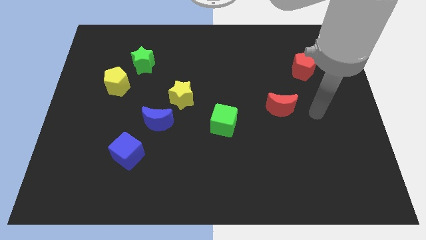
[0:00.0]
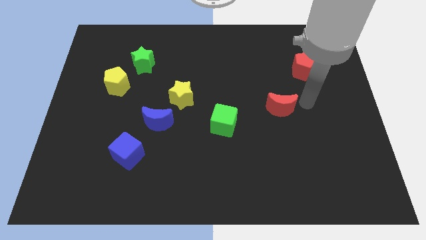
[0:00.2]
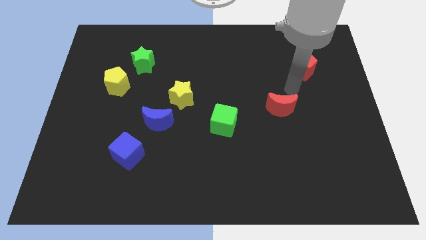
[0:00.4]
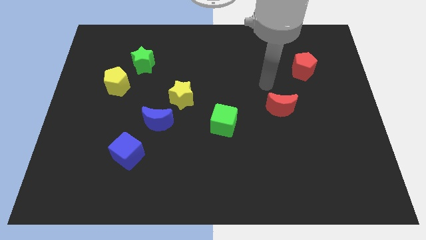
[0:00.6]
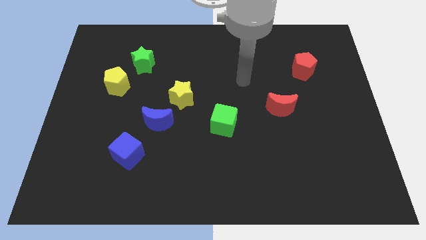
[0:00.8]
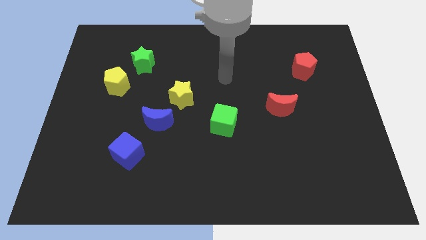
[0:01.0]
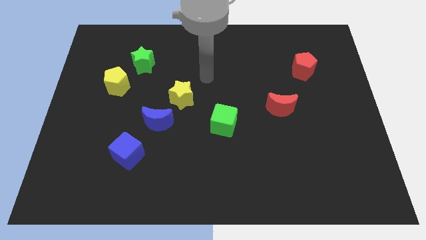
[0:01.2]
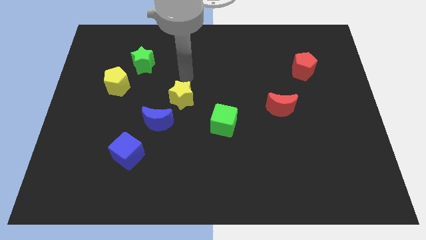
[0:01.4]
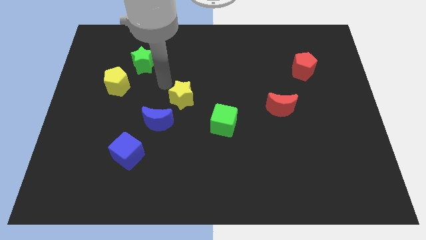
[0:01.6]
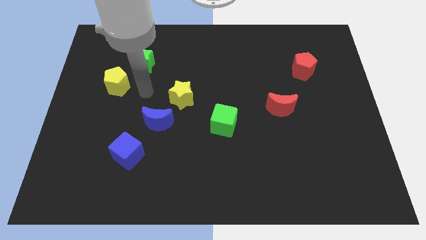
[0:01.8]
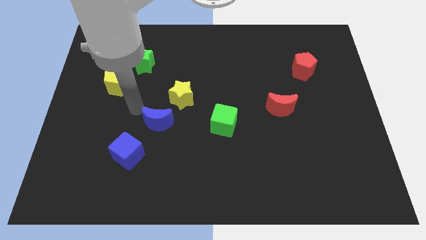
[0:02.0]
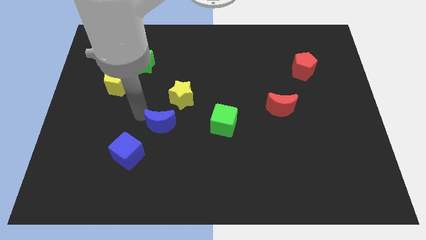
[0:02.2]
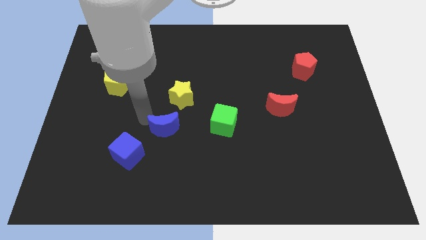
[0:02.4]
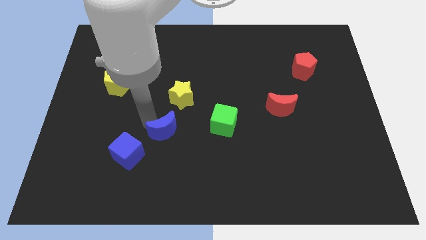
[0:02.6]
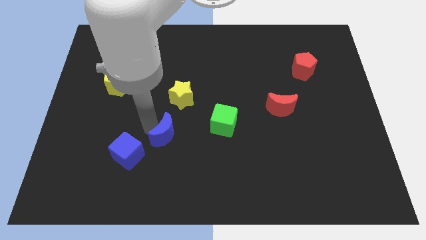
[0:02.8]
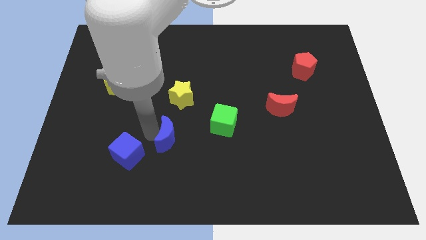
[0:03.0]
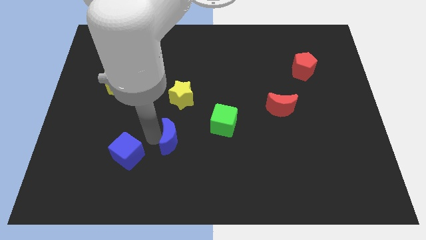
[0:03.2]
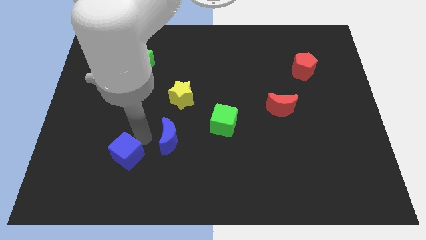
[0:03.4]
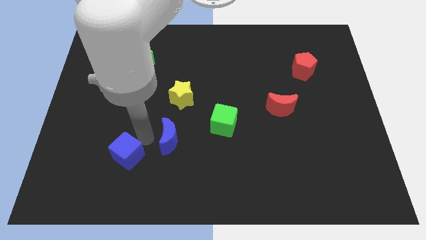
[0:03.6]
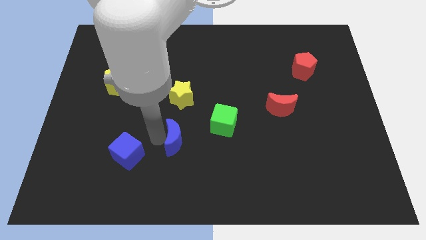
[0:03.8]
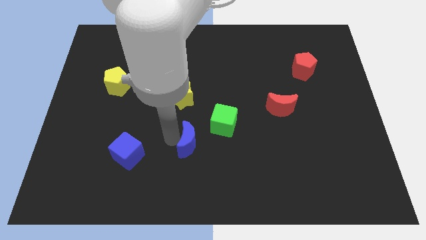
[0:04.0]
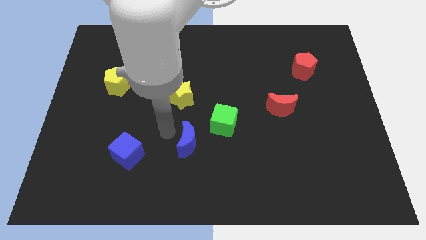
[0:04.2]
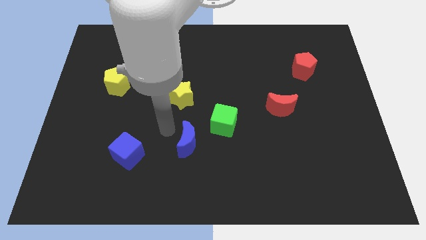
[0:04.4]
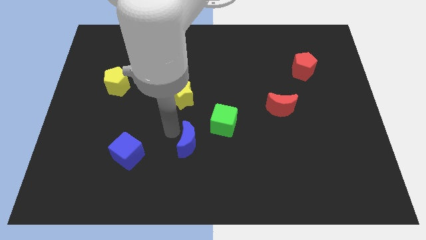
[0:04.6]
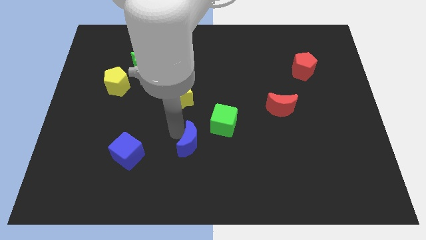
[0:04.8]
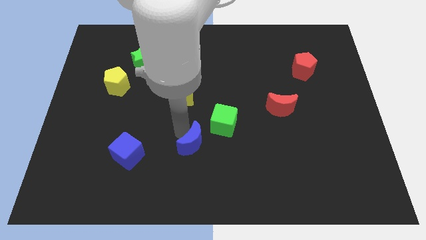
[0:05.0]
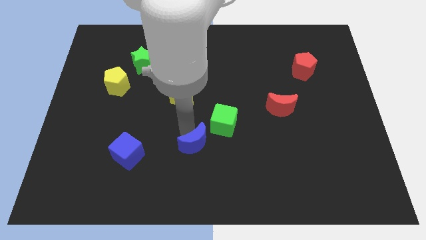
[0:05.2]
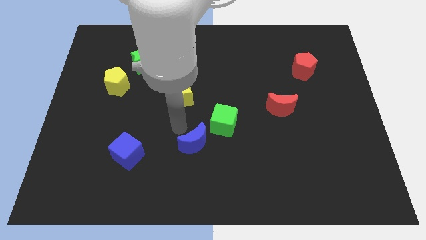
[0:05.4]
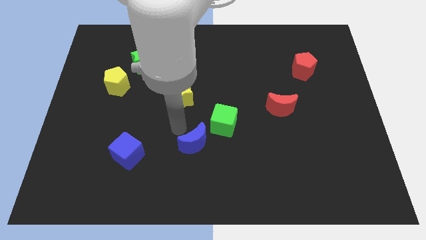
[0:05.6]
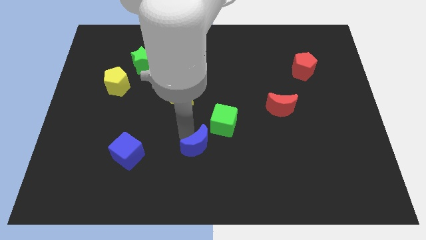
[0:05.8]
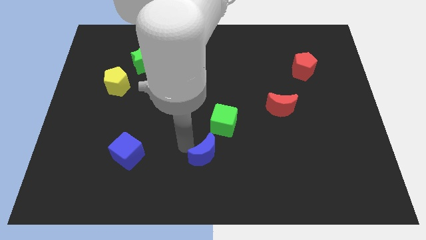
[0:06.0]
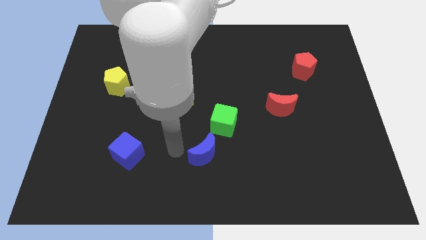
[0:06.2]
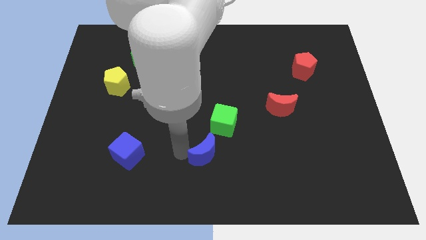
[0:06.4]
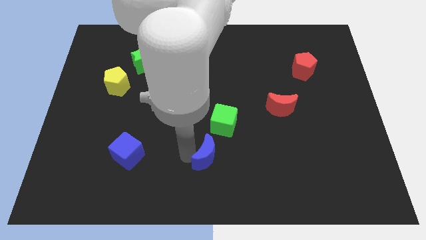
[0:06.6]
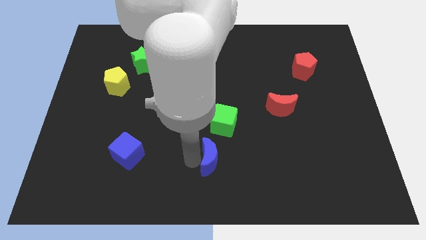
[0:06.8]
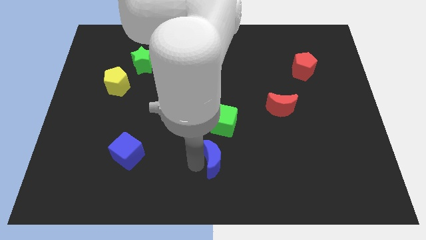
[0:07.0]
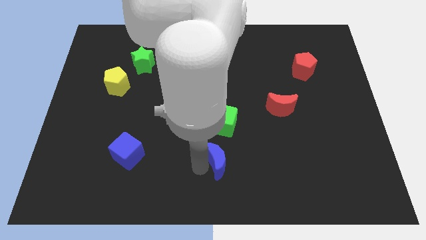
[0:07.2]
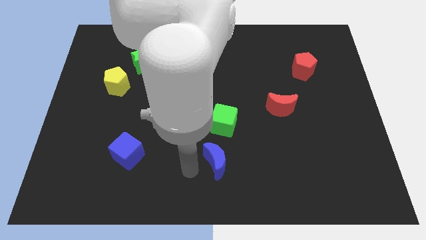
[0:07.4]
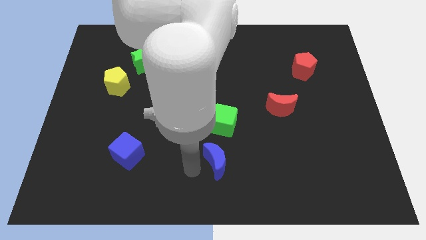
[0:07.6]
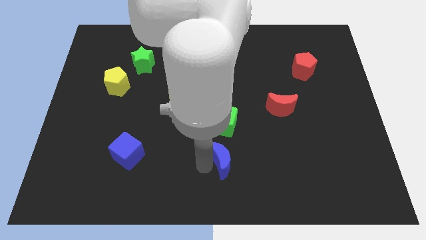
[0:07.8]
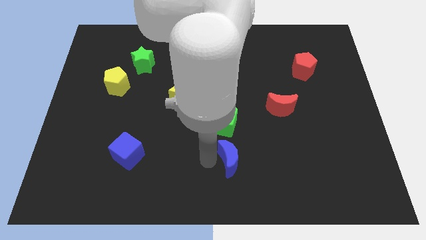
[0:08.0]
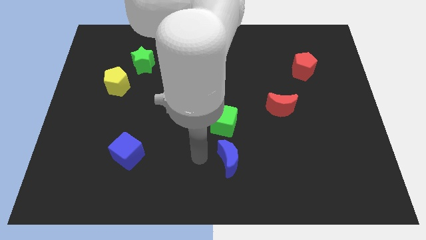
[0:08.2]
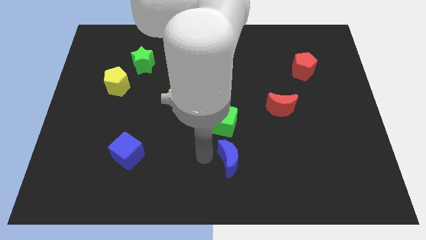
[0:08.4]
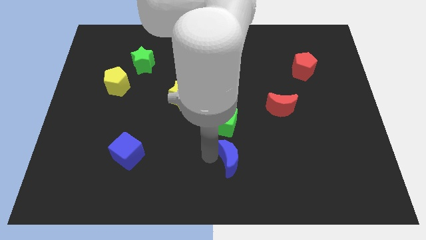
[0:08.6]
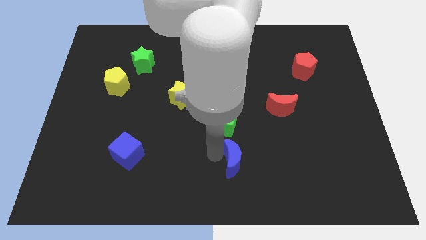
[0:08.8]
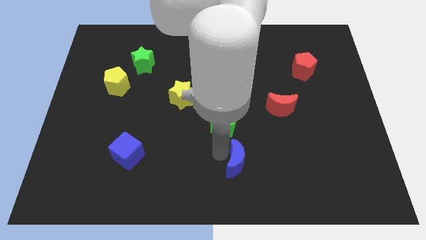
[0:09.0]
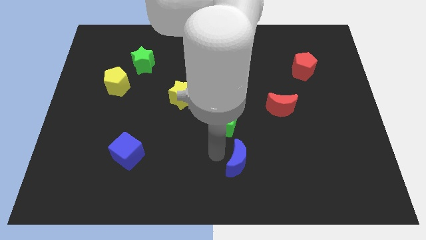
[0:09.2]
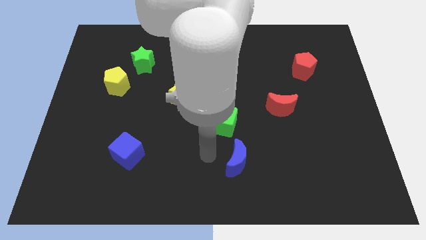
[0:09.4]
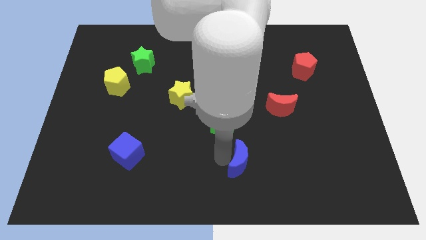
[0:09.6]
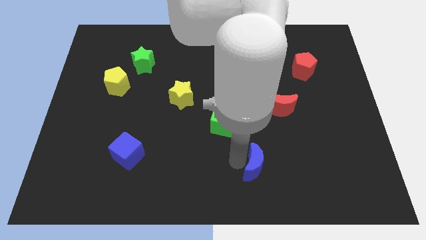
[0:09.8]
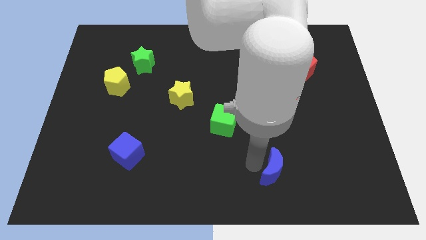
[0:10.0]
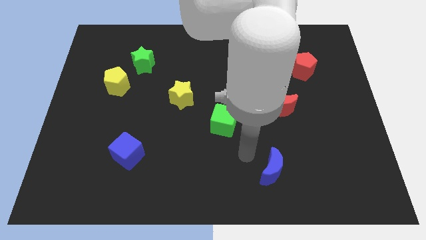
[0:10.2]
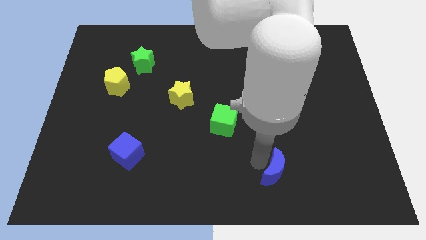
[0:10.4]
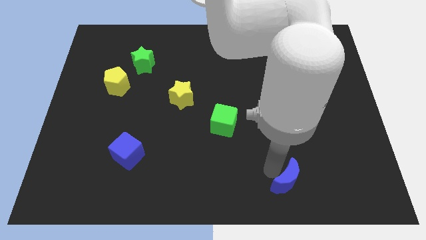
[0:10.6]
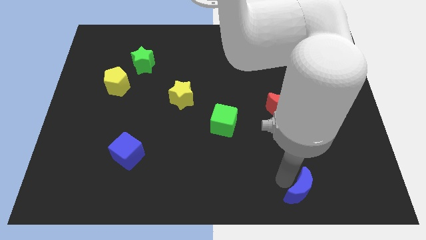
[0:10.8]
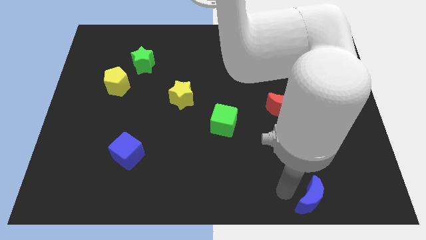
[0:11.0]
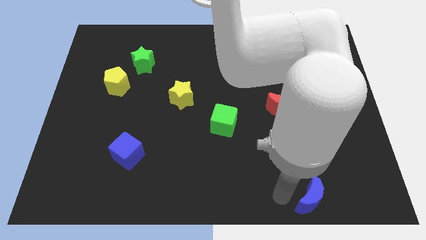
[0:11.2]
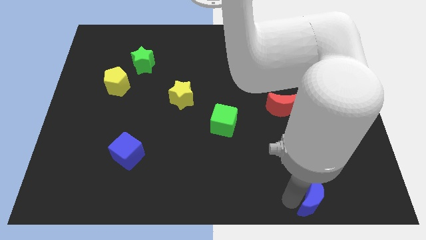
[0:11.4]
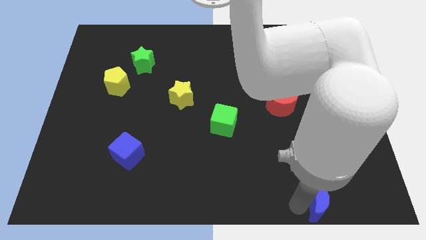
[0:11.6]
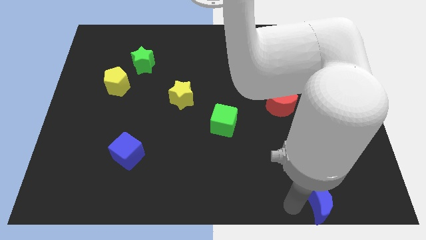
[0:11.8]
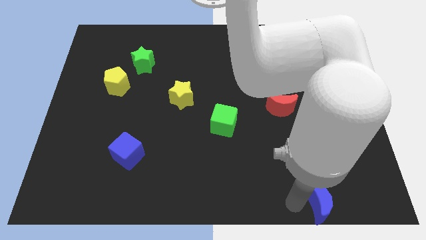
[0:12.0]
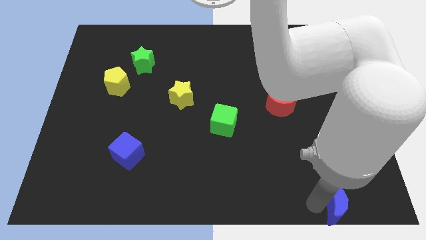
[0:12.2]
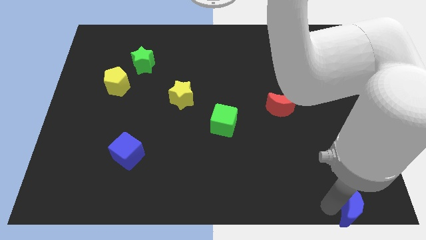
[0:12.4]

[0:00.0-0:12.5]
move the blue moon to the bottom right
